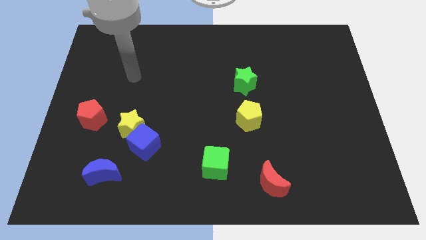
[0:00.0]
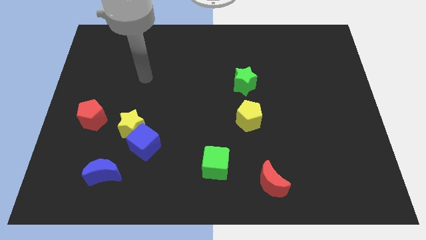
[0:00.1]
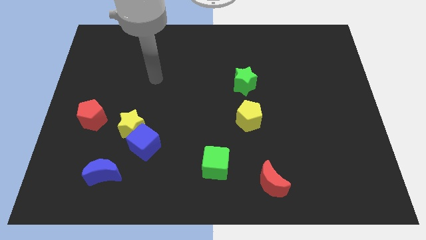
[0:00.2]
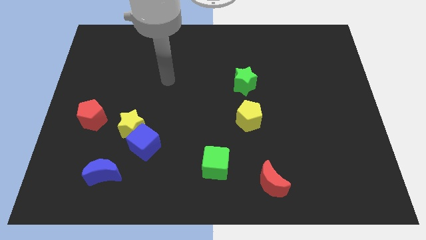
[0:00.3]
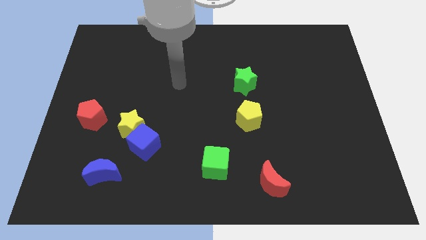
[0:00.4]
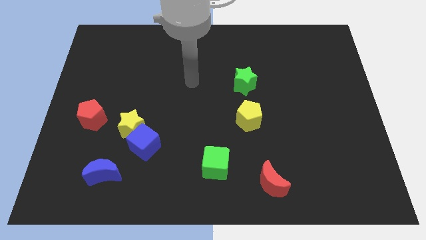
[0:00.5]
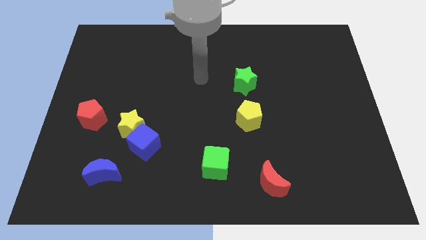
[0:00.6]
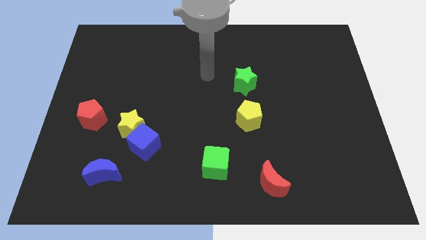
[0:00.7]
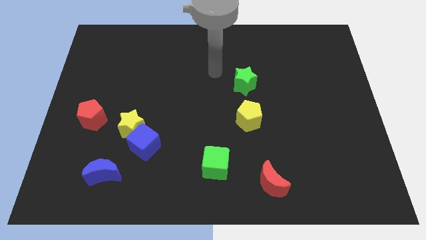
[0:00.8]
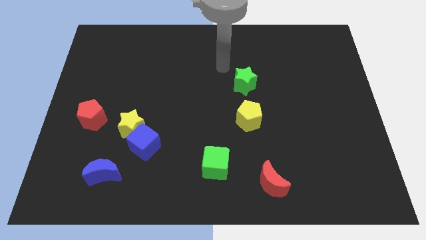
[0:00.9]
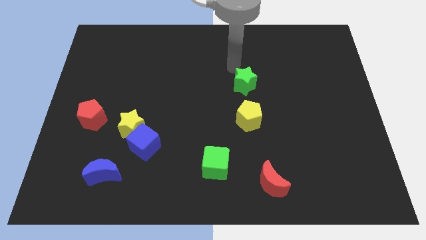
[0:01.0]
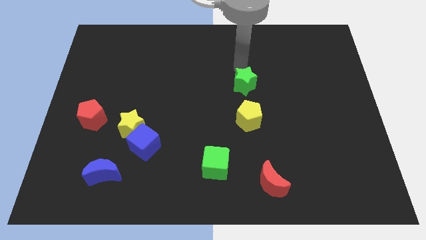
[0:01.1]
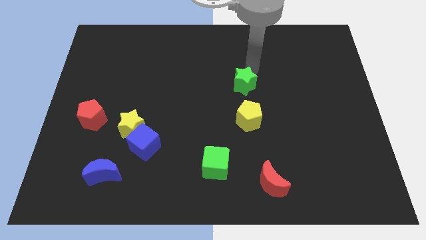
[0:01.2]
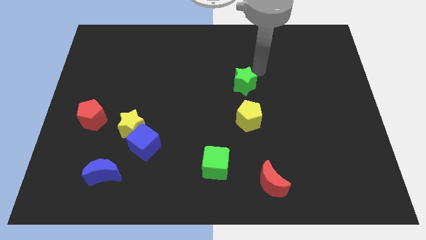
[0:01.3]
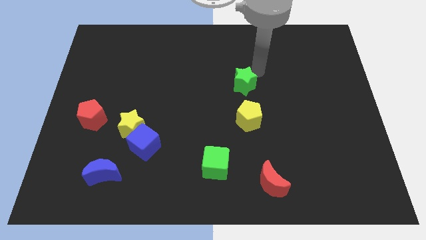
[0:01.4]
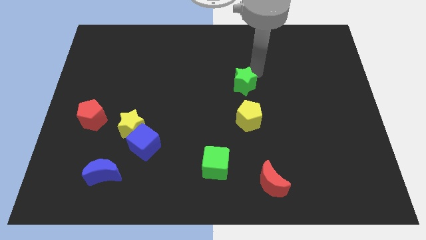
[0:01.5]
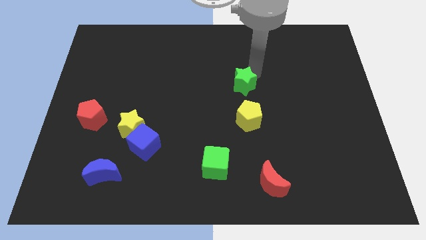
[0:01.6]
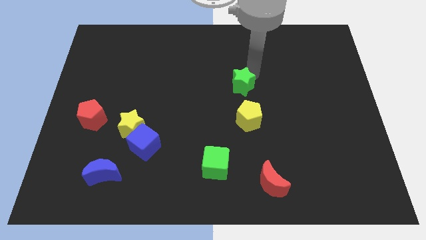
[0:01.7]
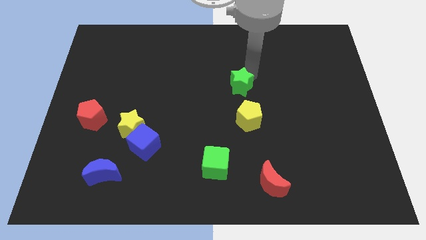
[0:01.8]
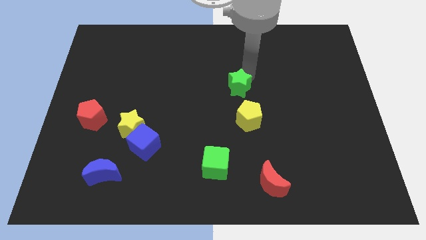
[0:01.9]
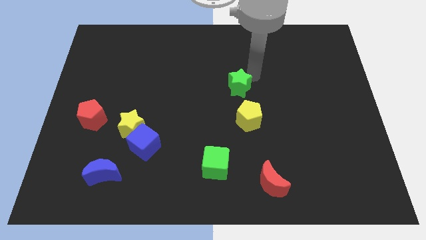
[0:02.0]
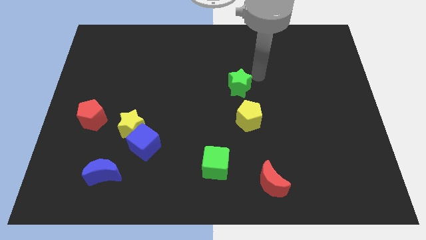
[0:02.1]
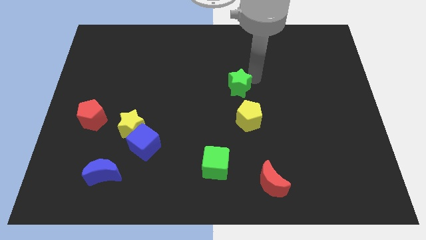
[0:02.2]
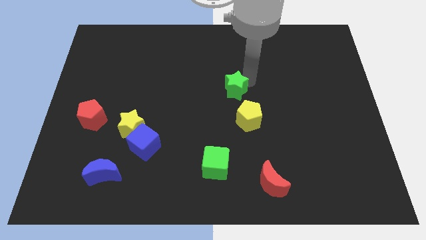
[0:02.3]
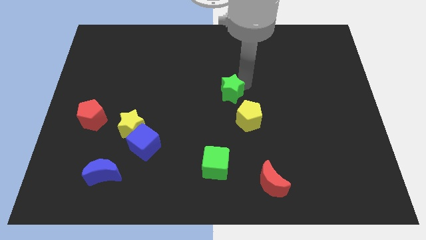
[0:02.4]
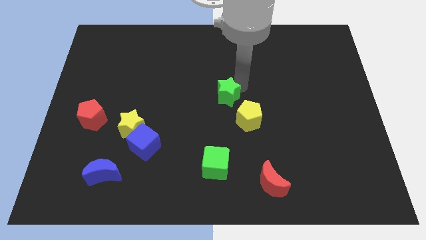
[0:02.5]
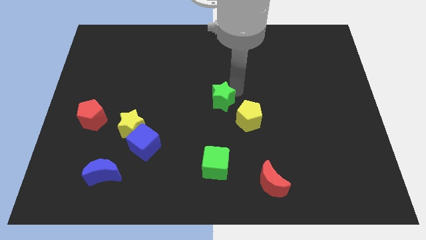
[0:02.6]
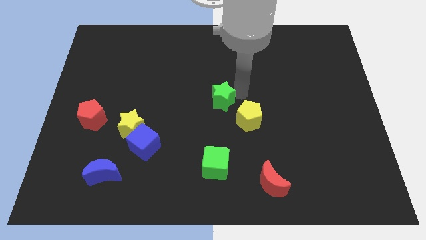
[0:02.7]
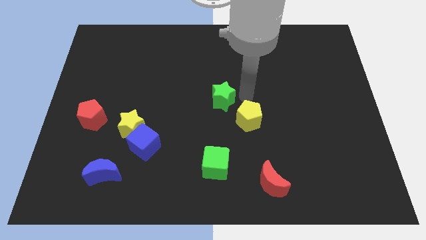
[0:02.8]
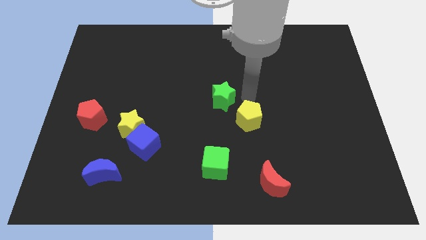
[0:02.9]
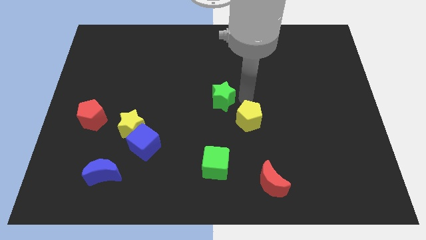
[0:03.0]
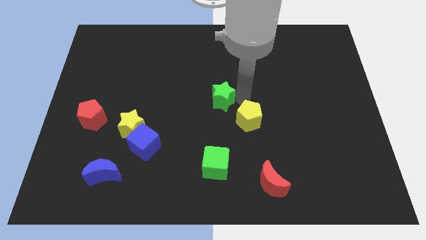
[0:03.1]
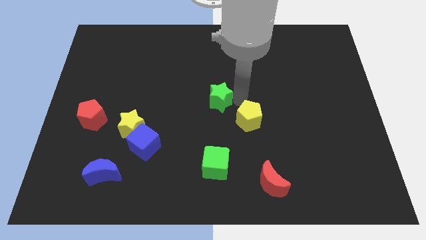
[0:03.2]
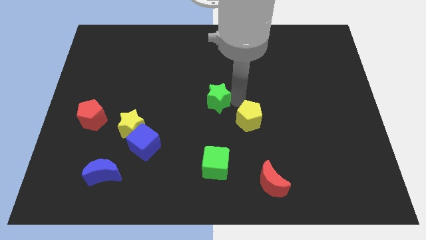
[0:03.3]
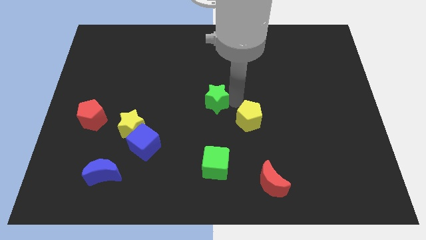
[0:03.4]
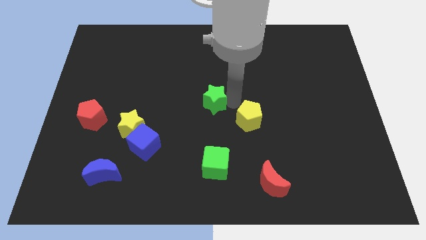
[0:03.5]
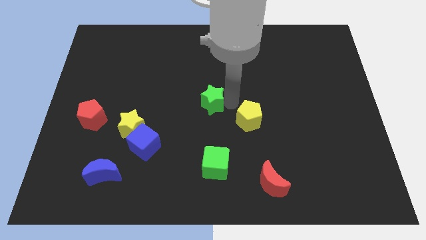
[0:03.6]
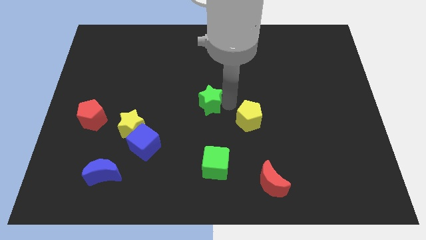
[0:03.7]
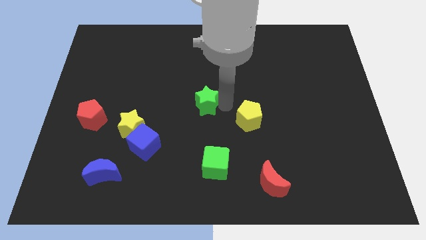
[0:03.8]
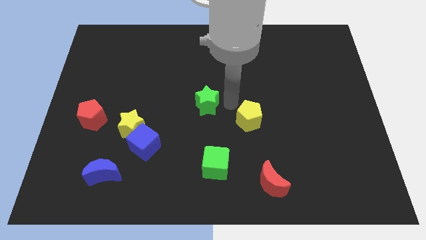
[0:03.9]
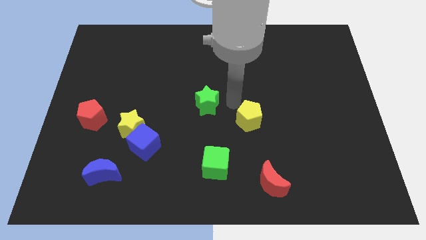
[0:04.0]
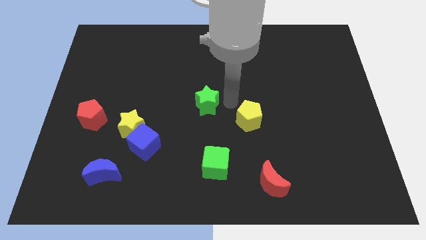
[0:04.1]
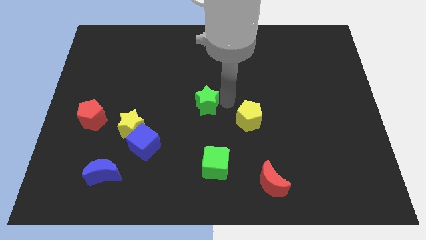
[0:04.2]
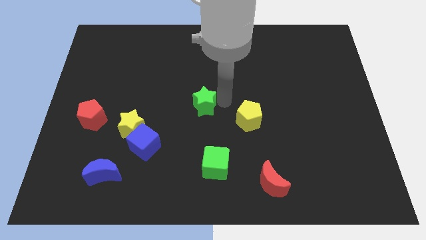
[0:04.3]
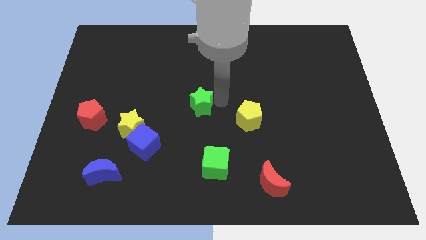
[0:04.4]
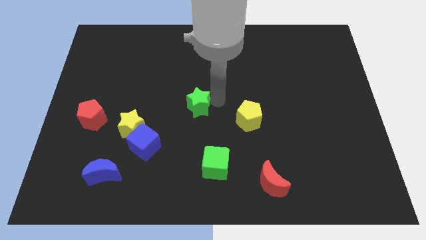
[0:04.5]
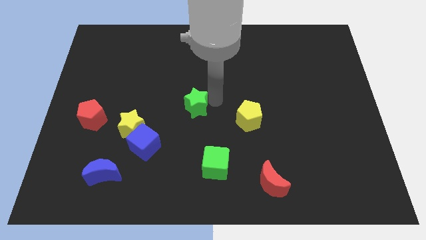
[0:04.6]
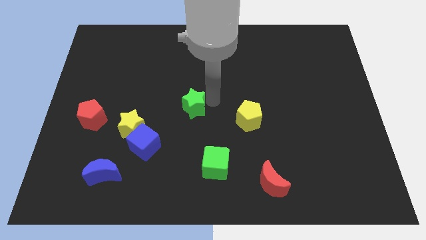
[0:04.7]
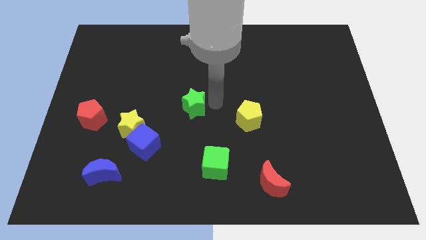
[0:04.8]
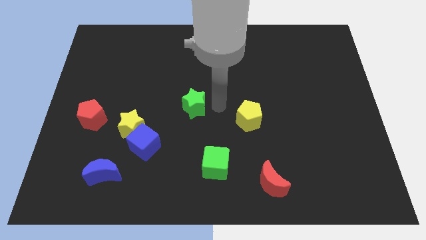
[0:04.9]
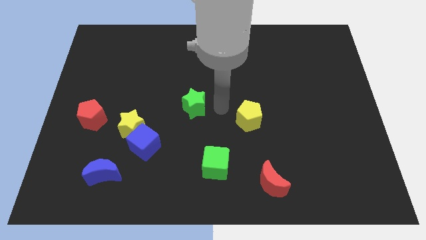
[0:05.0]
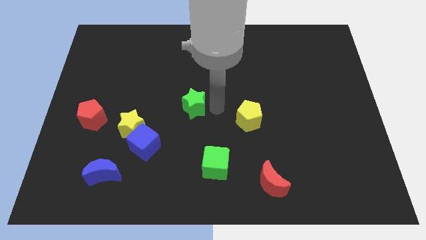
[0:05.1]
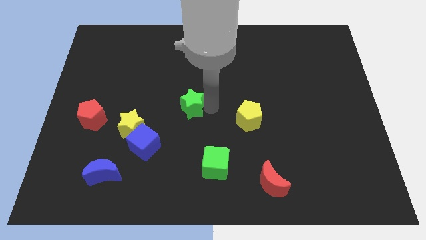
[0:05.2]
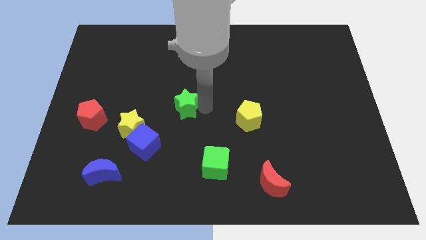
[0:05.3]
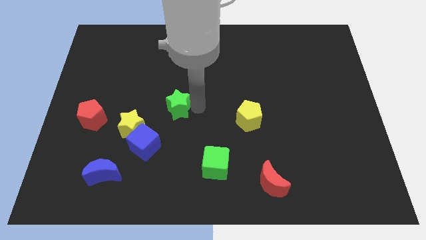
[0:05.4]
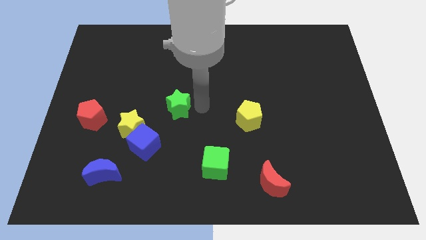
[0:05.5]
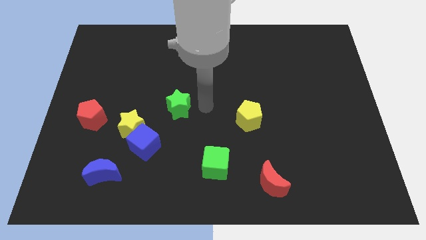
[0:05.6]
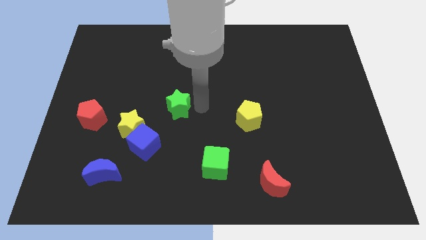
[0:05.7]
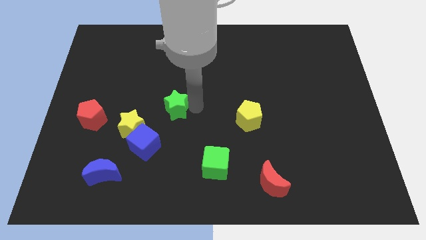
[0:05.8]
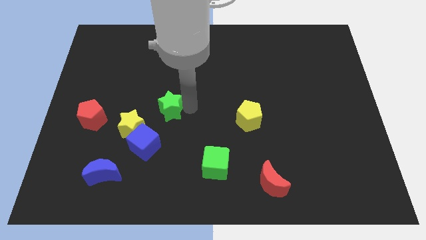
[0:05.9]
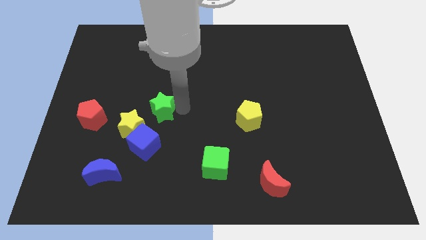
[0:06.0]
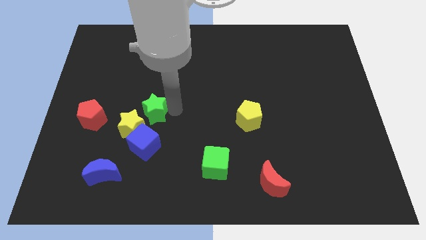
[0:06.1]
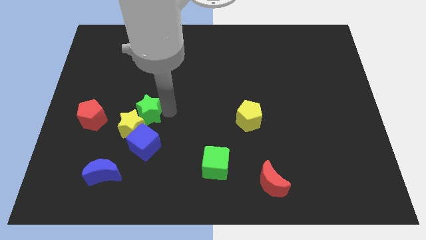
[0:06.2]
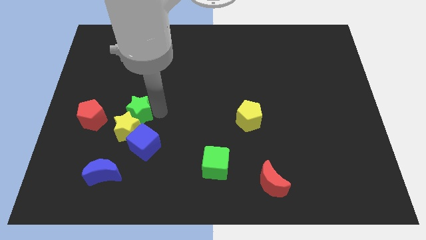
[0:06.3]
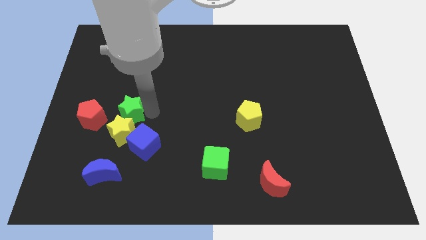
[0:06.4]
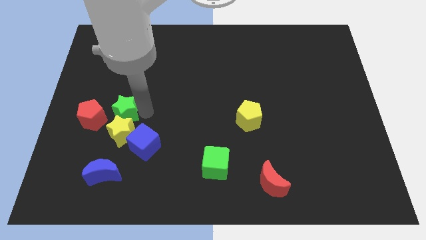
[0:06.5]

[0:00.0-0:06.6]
put the green star above the blue moon
